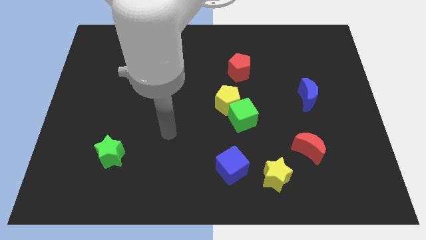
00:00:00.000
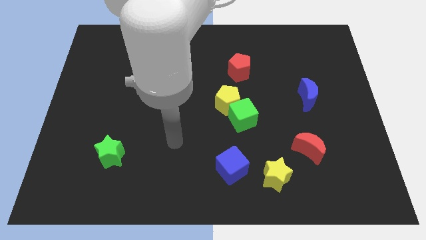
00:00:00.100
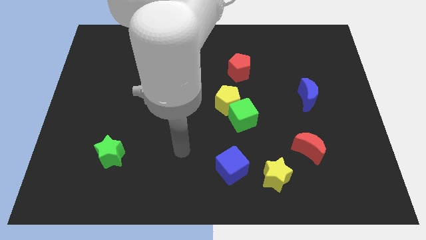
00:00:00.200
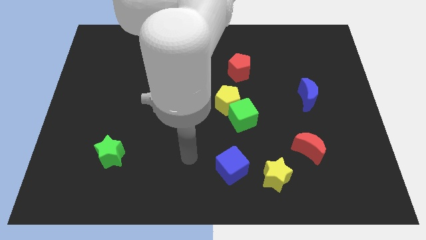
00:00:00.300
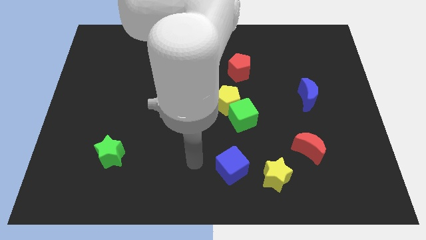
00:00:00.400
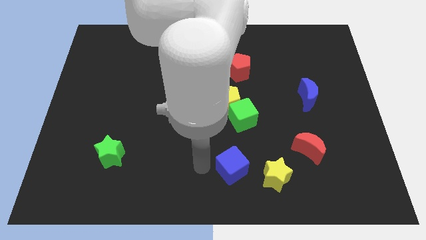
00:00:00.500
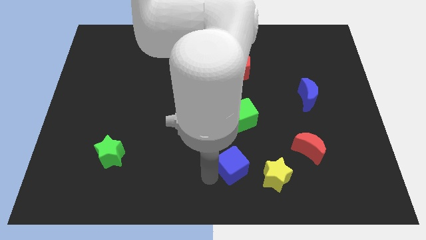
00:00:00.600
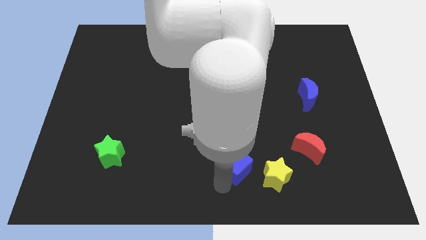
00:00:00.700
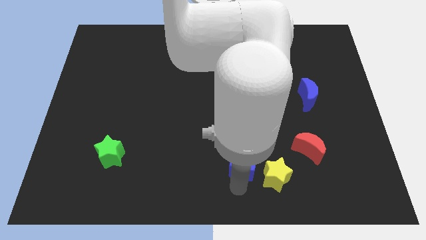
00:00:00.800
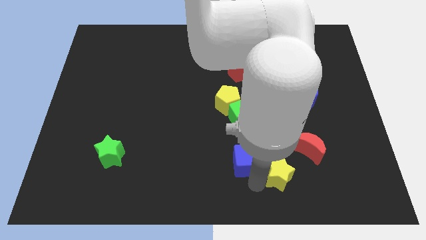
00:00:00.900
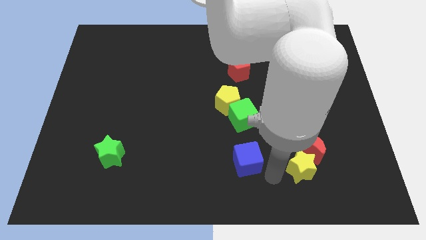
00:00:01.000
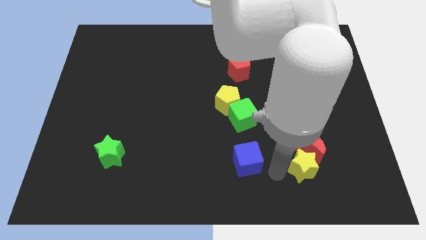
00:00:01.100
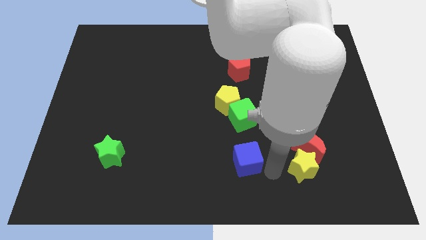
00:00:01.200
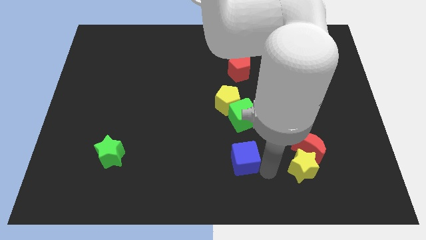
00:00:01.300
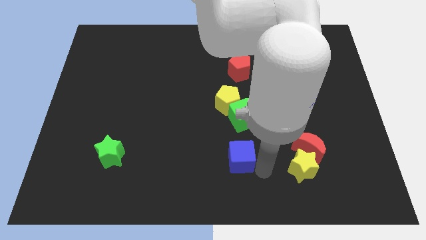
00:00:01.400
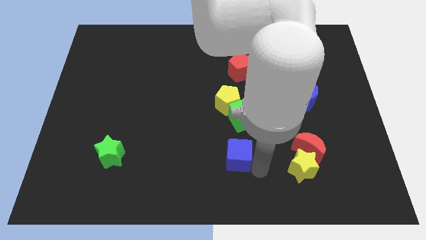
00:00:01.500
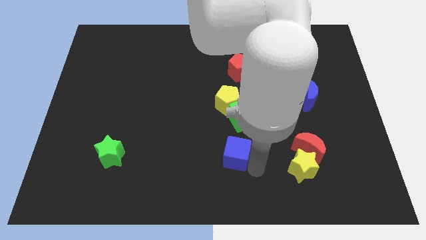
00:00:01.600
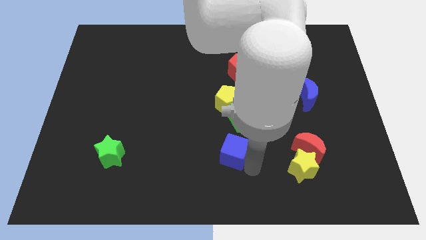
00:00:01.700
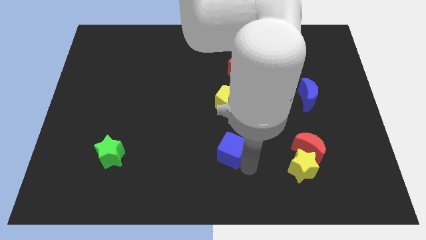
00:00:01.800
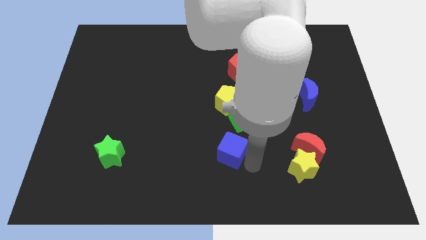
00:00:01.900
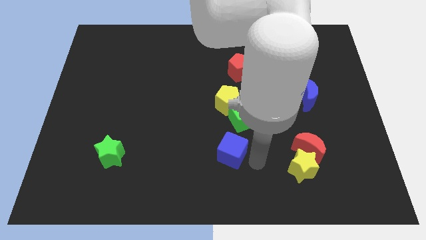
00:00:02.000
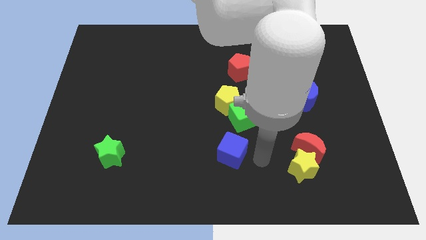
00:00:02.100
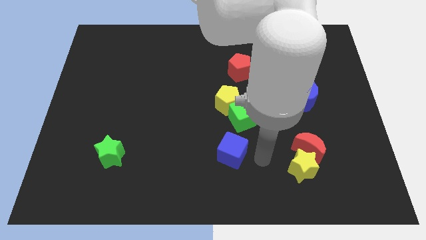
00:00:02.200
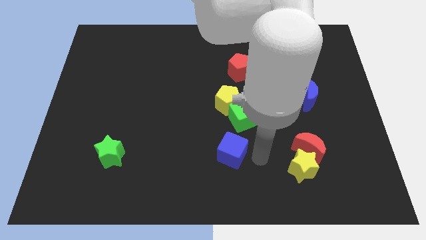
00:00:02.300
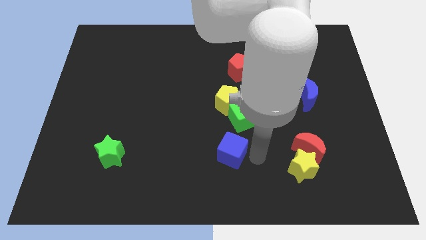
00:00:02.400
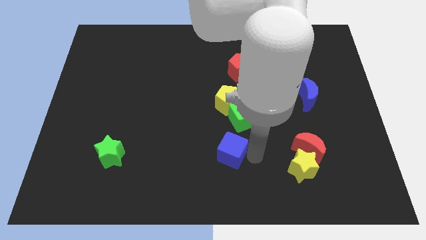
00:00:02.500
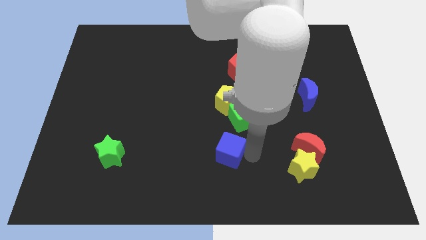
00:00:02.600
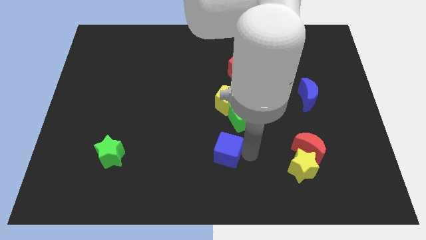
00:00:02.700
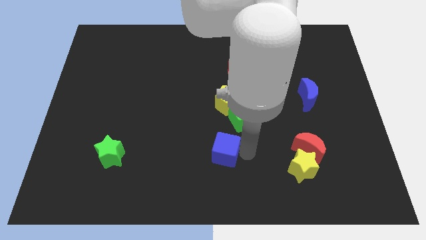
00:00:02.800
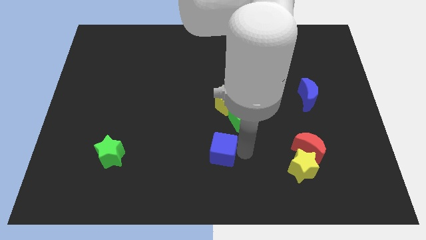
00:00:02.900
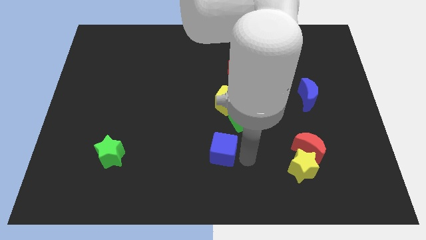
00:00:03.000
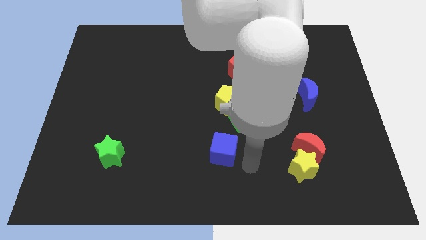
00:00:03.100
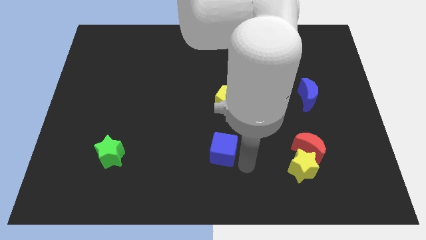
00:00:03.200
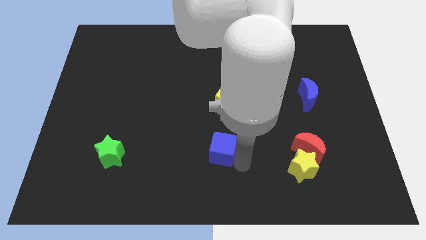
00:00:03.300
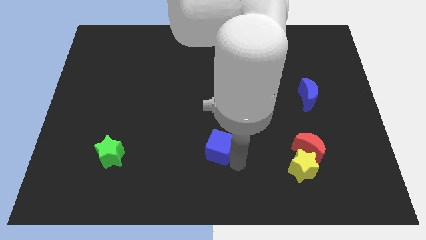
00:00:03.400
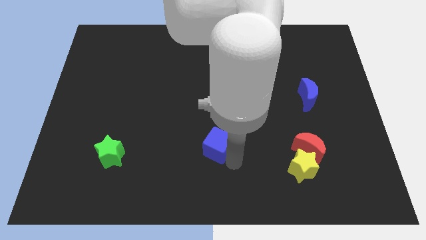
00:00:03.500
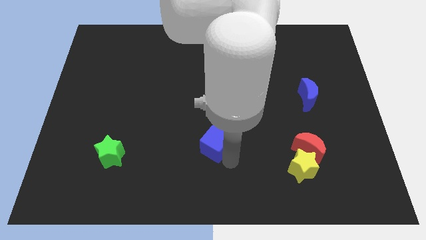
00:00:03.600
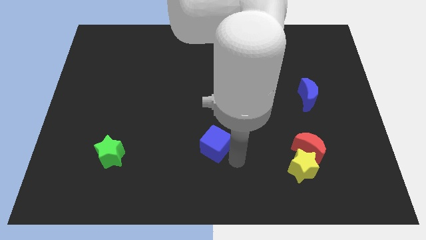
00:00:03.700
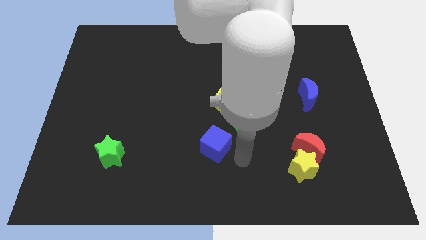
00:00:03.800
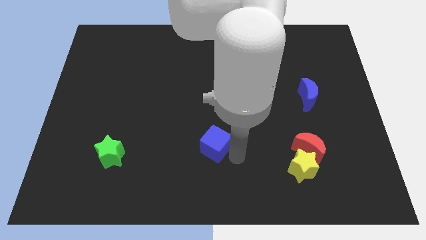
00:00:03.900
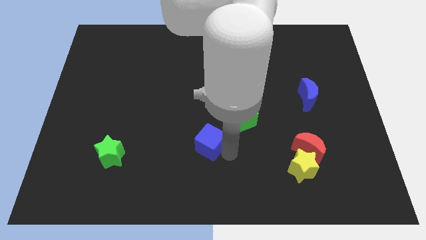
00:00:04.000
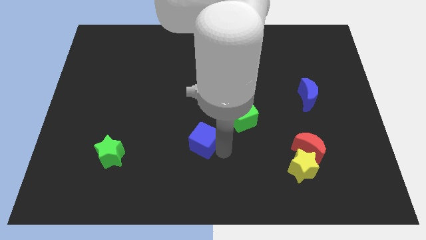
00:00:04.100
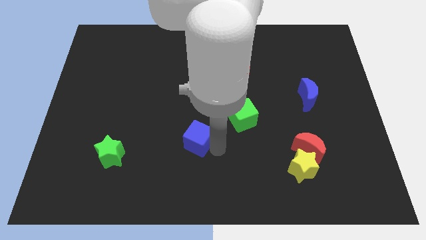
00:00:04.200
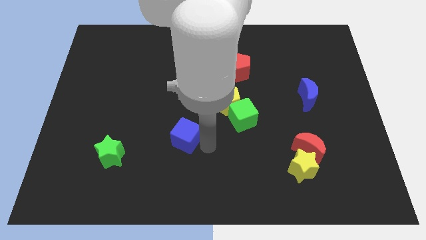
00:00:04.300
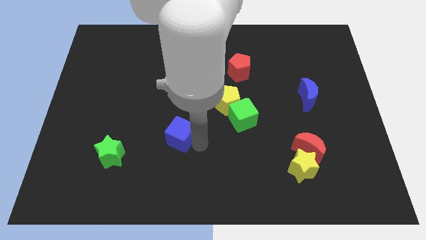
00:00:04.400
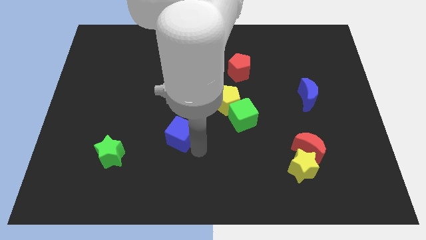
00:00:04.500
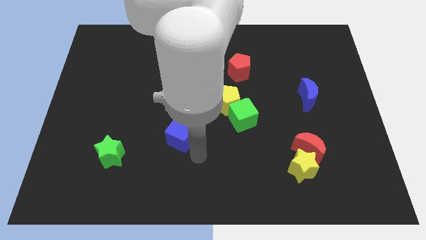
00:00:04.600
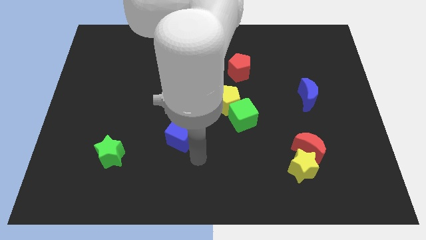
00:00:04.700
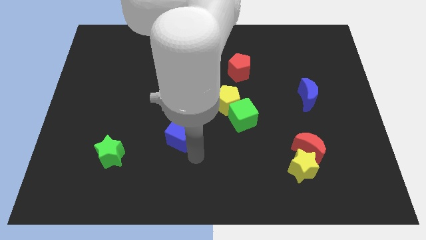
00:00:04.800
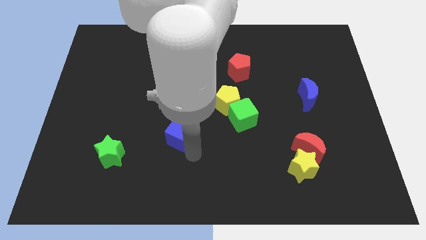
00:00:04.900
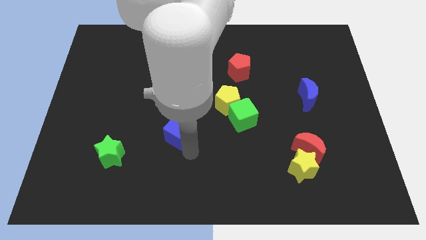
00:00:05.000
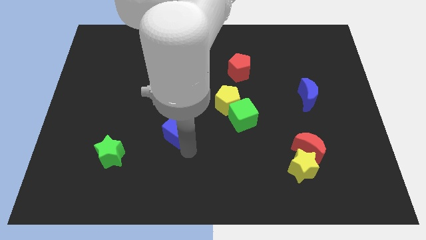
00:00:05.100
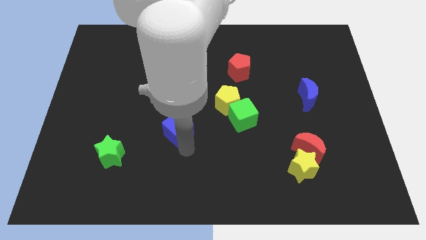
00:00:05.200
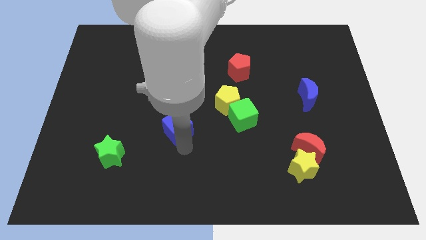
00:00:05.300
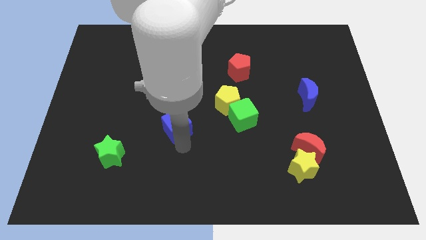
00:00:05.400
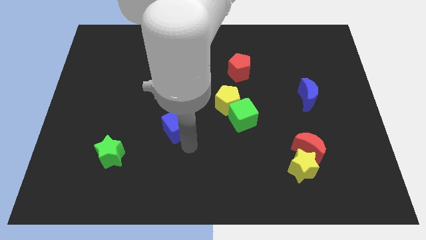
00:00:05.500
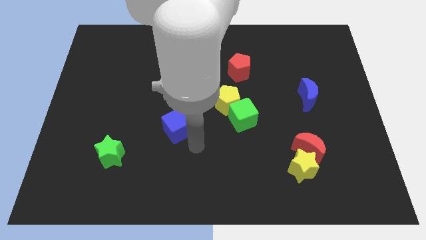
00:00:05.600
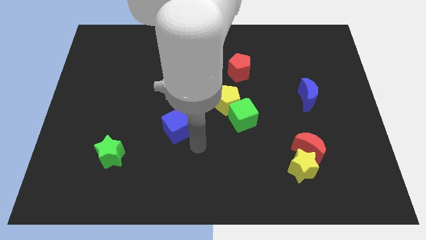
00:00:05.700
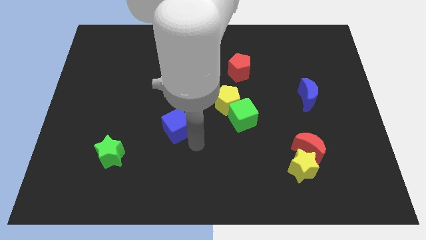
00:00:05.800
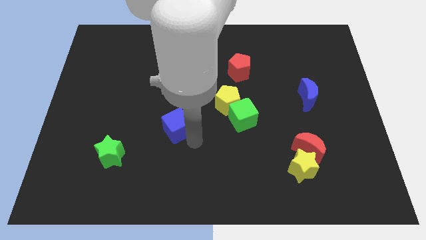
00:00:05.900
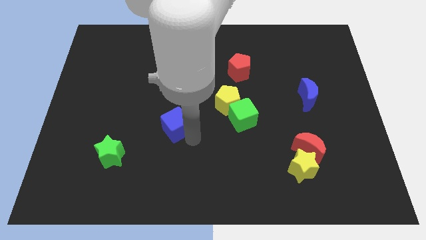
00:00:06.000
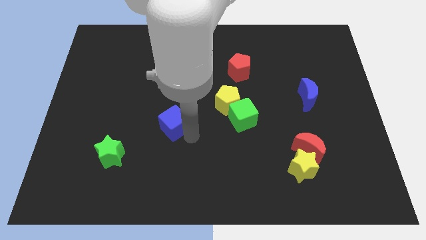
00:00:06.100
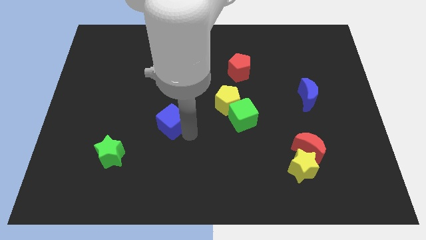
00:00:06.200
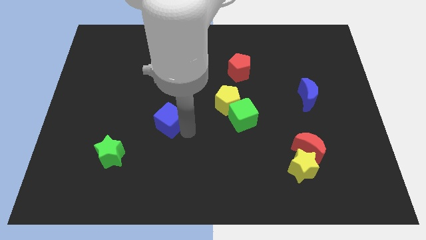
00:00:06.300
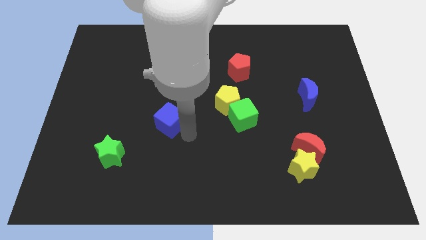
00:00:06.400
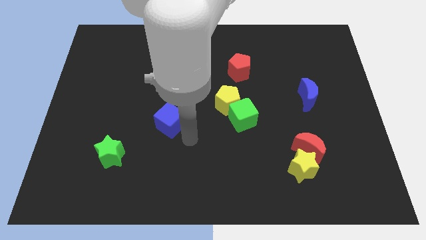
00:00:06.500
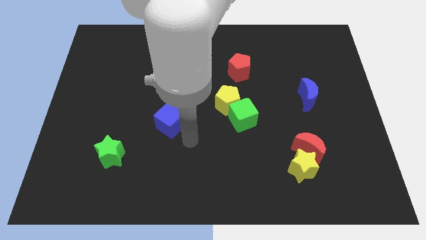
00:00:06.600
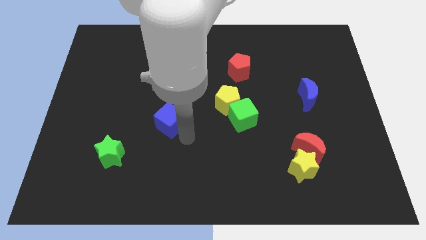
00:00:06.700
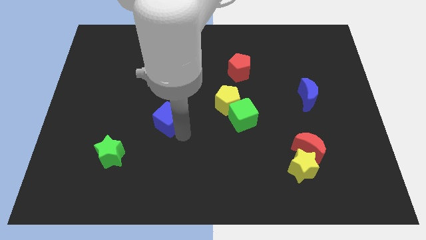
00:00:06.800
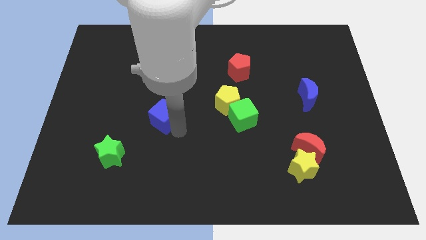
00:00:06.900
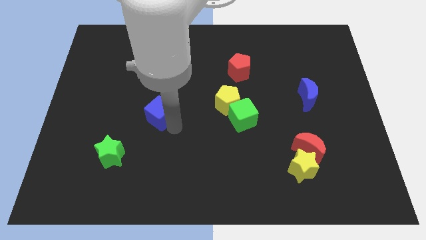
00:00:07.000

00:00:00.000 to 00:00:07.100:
push the blue cube diagonally upwards and left

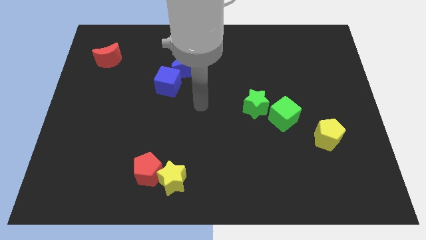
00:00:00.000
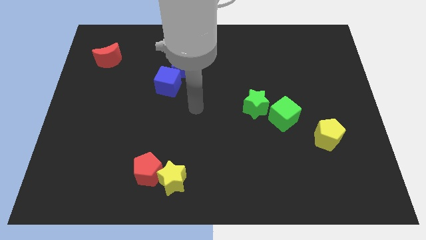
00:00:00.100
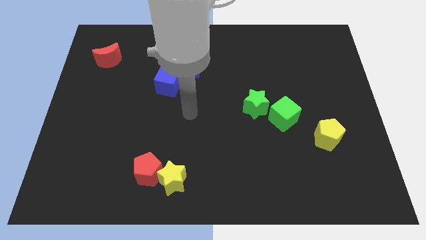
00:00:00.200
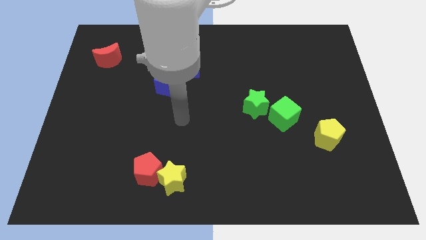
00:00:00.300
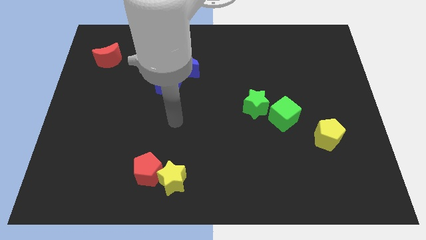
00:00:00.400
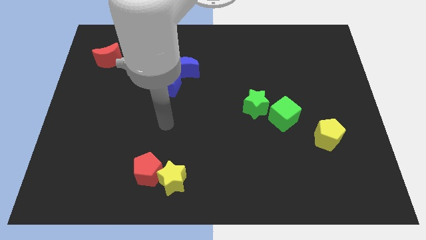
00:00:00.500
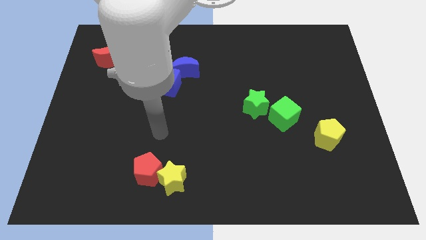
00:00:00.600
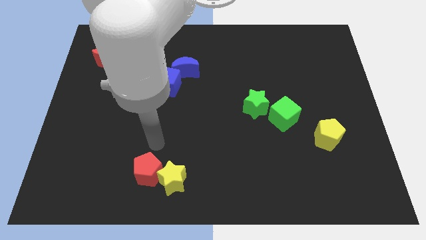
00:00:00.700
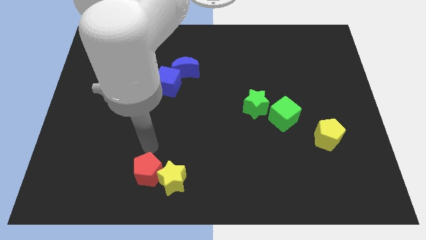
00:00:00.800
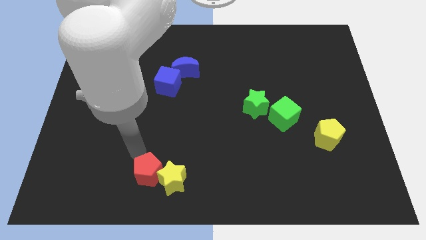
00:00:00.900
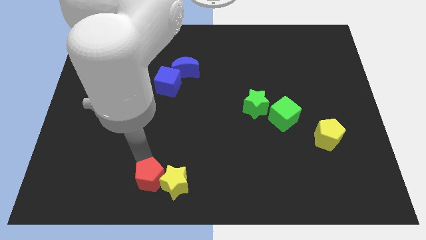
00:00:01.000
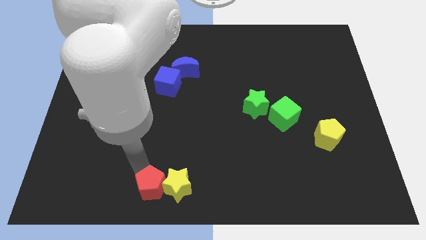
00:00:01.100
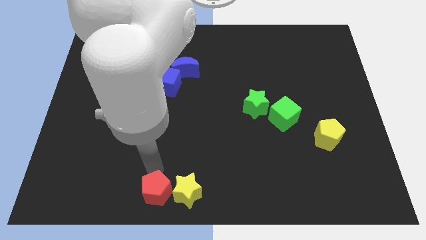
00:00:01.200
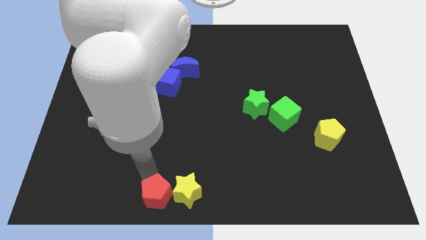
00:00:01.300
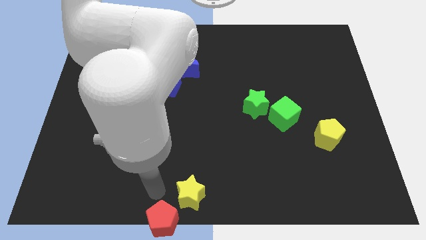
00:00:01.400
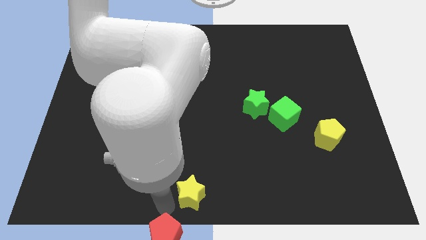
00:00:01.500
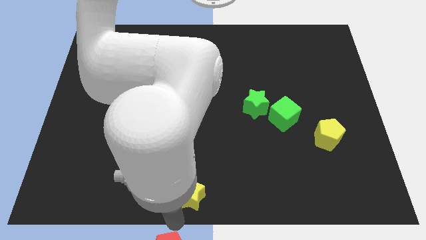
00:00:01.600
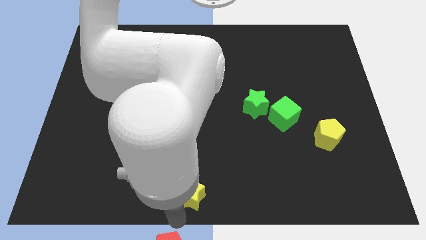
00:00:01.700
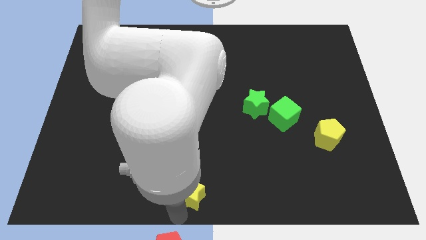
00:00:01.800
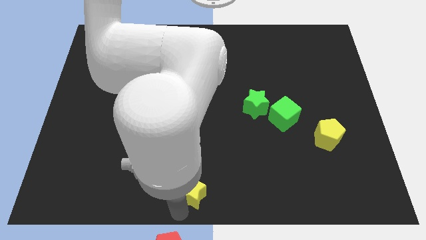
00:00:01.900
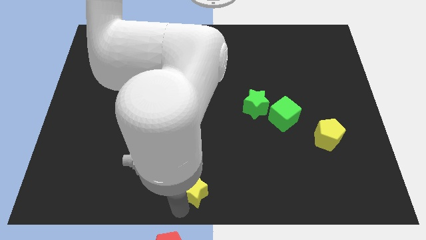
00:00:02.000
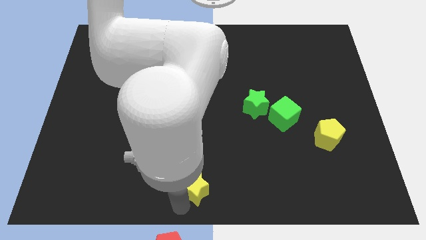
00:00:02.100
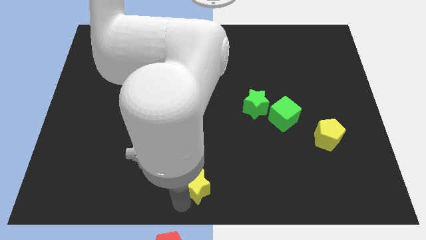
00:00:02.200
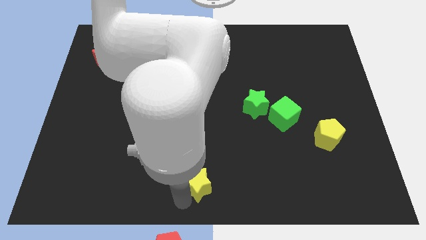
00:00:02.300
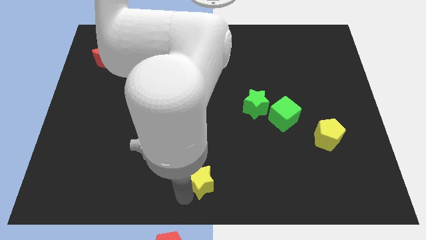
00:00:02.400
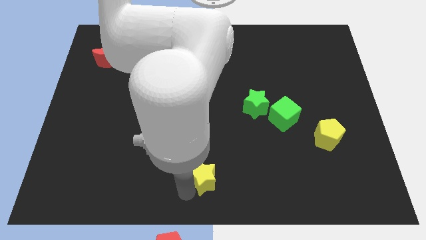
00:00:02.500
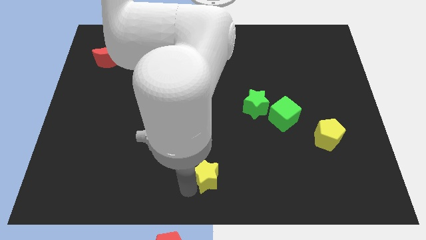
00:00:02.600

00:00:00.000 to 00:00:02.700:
slide the yellow star right a little
